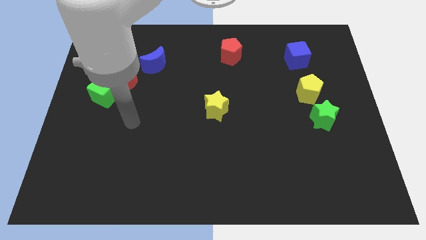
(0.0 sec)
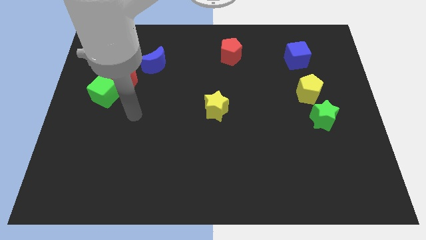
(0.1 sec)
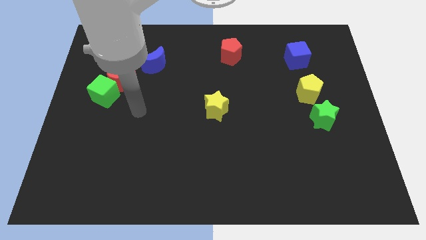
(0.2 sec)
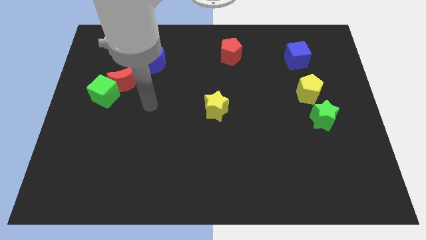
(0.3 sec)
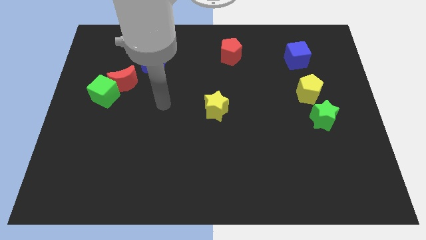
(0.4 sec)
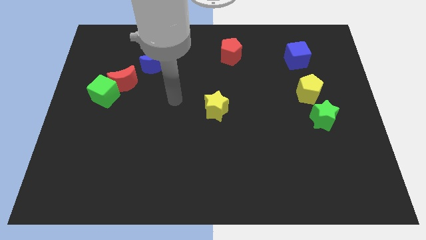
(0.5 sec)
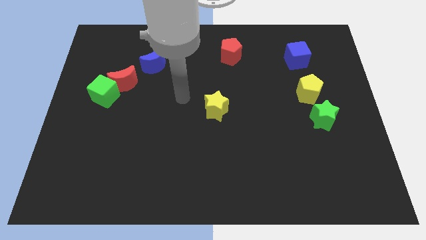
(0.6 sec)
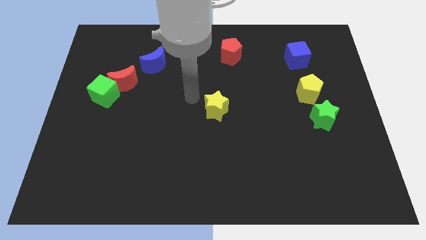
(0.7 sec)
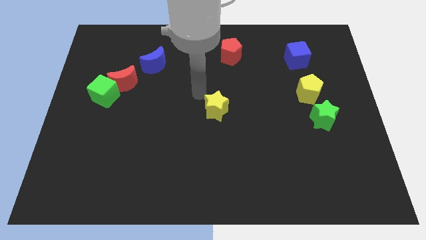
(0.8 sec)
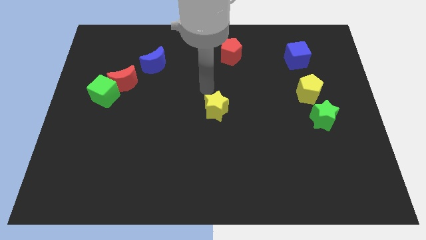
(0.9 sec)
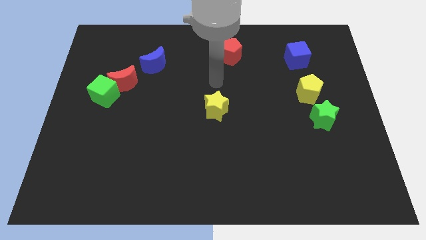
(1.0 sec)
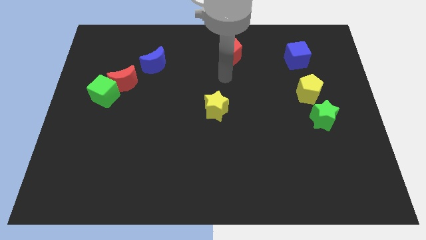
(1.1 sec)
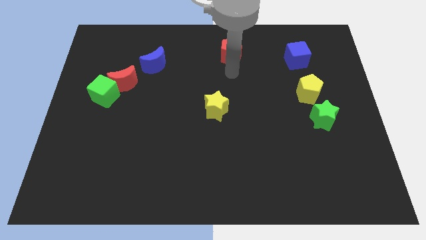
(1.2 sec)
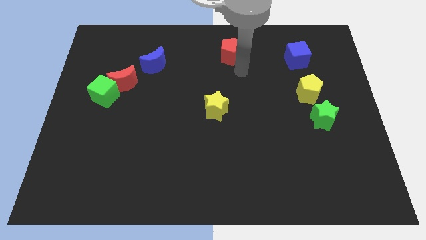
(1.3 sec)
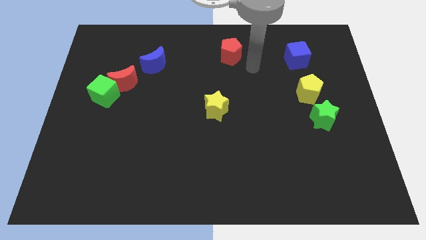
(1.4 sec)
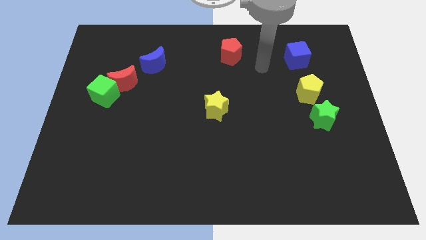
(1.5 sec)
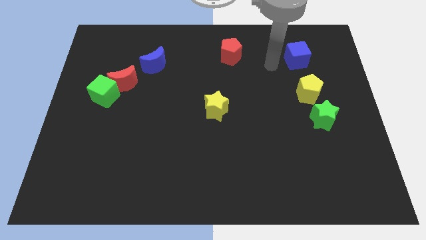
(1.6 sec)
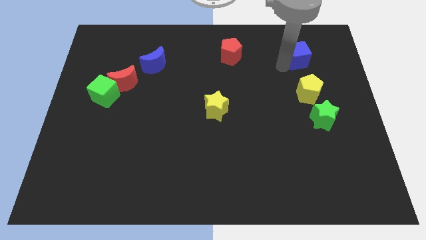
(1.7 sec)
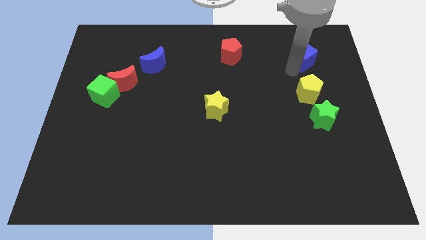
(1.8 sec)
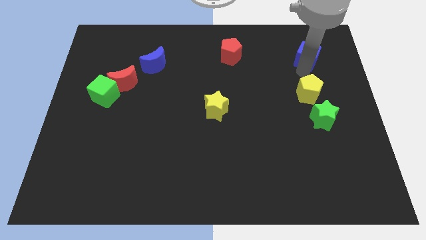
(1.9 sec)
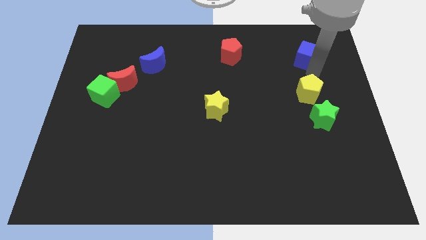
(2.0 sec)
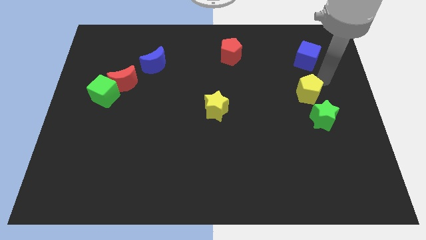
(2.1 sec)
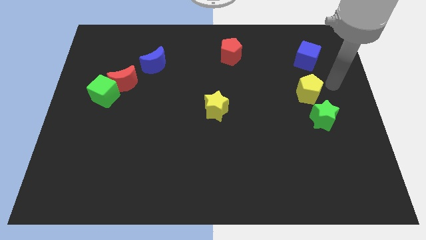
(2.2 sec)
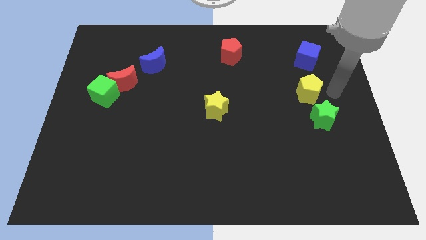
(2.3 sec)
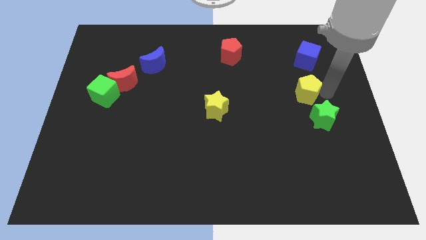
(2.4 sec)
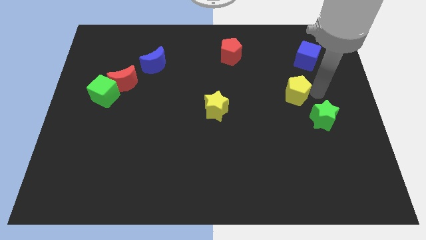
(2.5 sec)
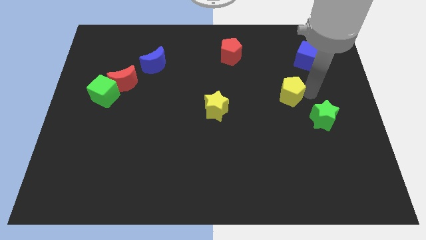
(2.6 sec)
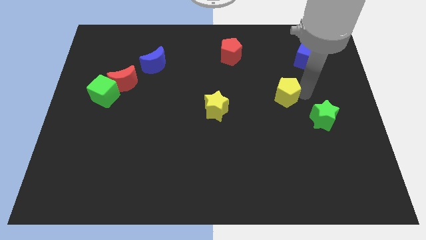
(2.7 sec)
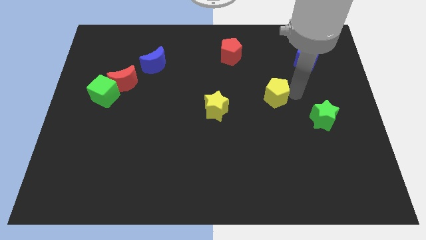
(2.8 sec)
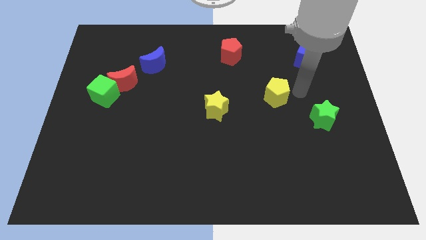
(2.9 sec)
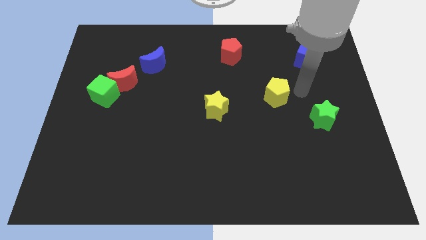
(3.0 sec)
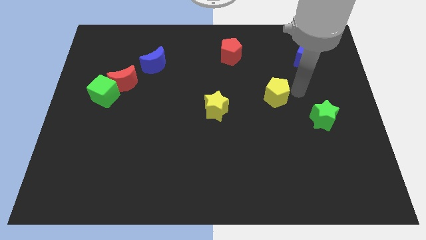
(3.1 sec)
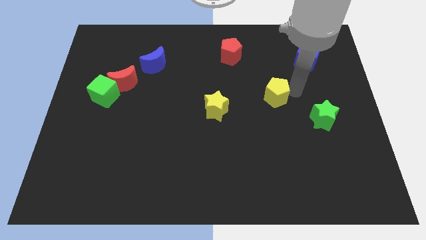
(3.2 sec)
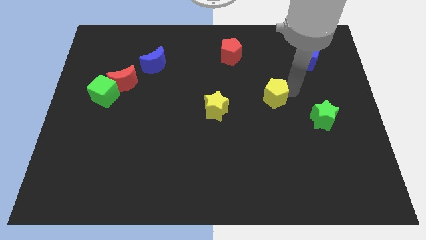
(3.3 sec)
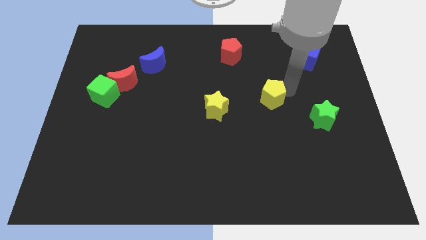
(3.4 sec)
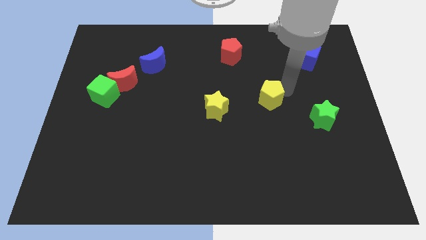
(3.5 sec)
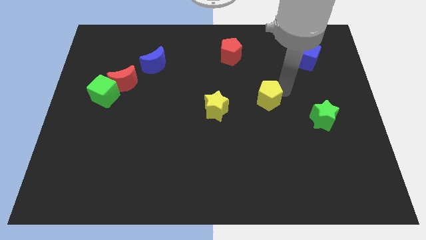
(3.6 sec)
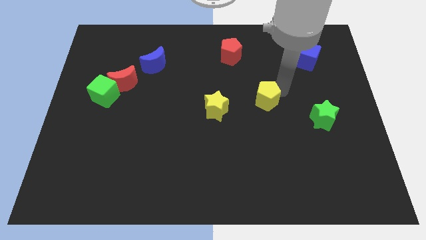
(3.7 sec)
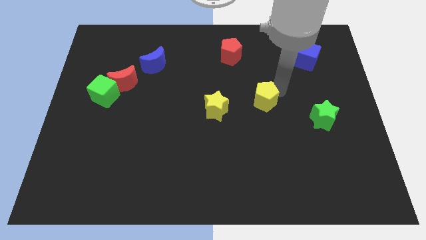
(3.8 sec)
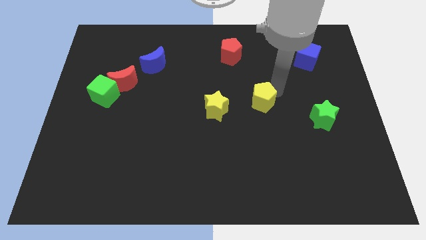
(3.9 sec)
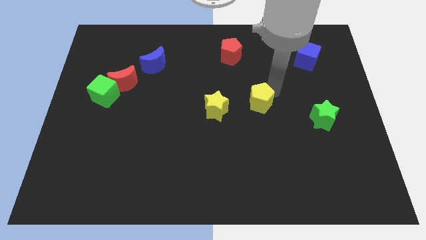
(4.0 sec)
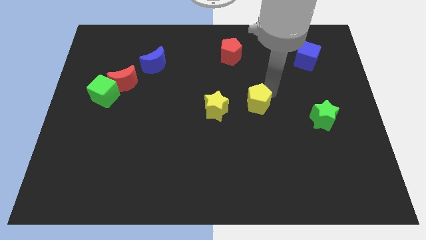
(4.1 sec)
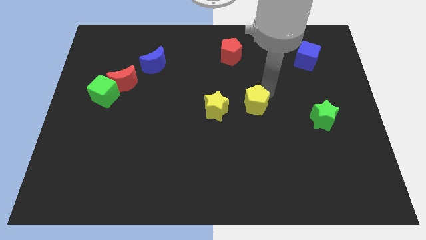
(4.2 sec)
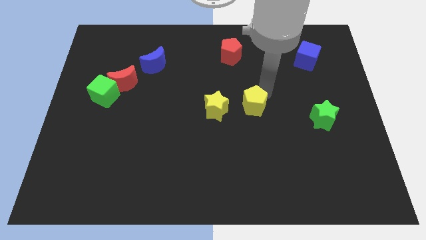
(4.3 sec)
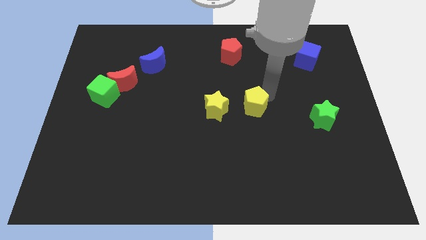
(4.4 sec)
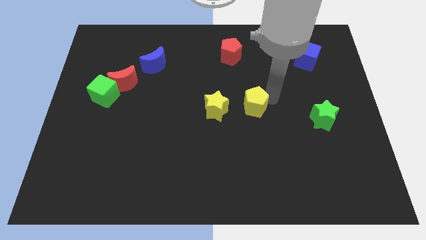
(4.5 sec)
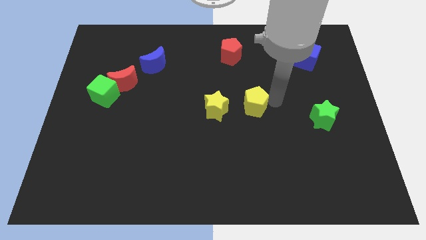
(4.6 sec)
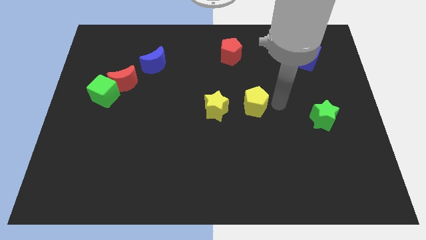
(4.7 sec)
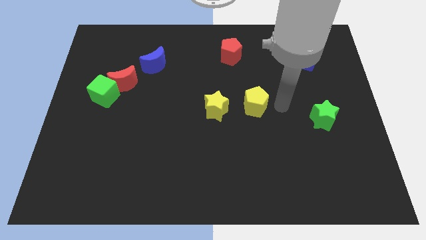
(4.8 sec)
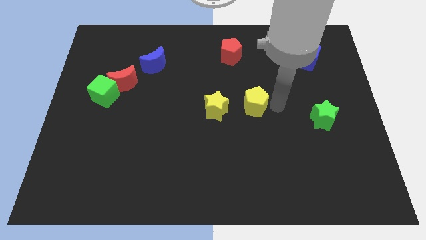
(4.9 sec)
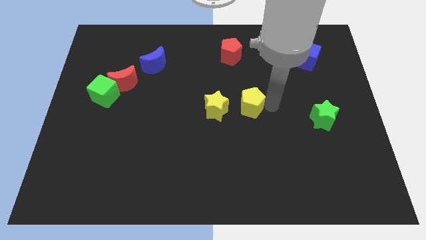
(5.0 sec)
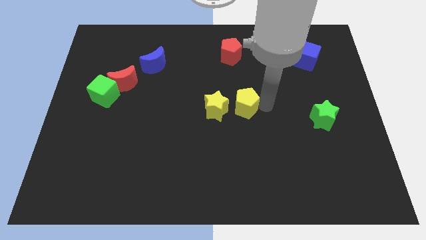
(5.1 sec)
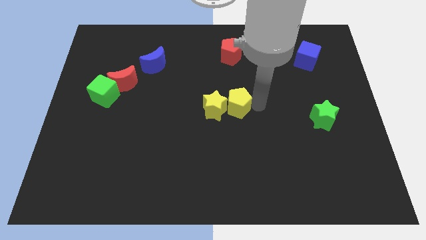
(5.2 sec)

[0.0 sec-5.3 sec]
put the yellow pentagon close to the yellow star

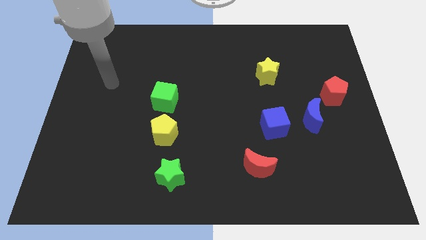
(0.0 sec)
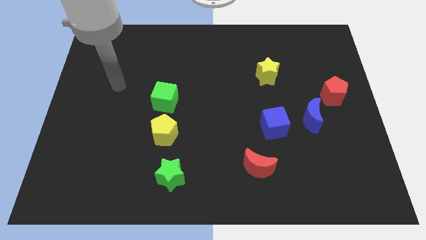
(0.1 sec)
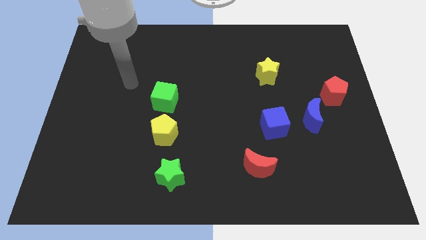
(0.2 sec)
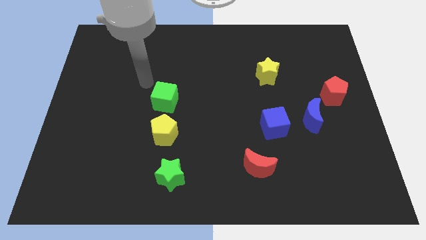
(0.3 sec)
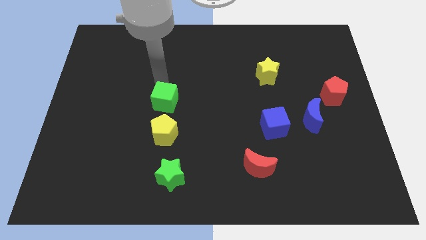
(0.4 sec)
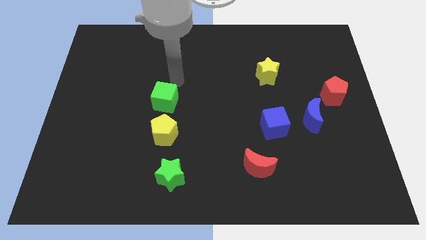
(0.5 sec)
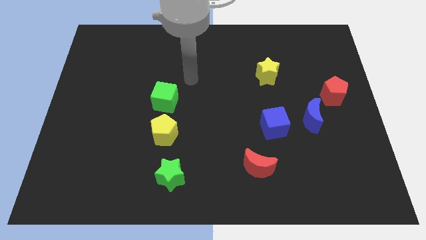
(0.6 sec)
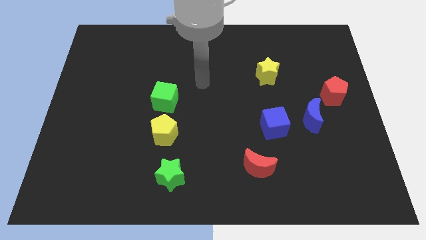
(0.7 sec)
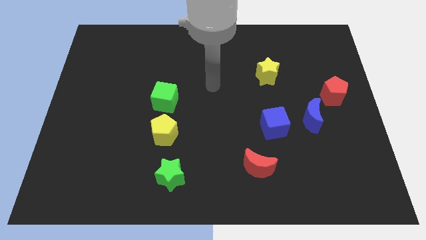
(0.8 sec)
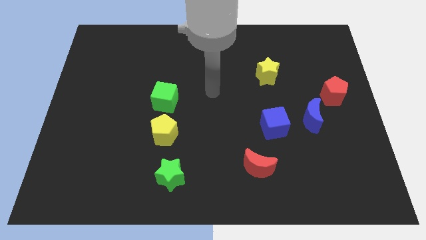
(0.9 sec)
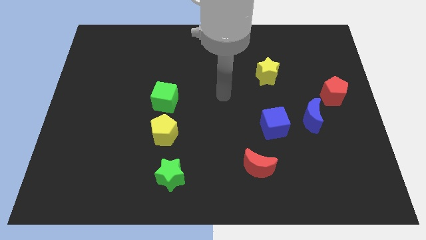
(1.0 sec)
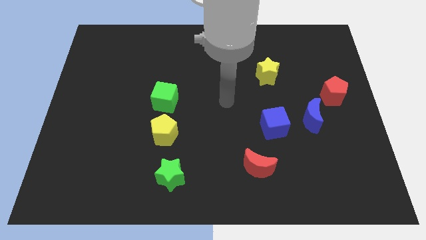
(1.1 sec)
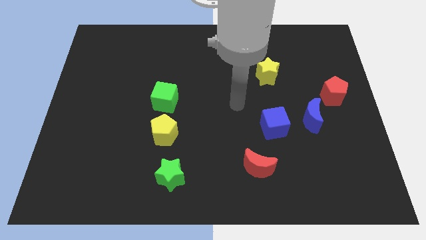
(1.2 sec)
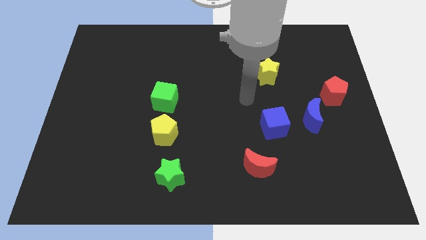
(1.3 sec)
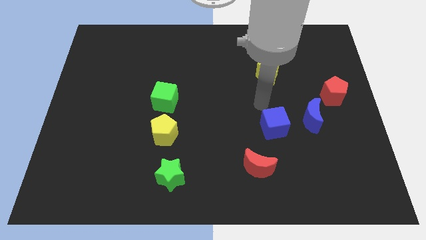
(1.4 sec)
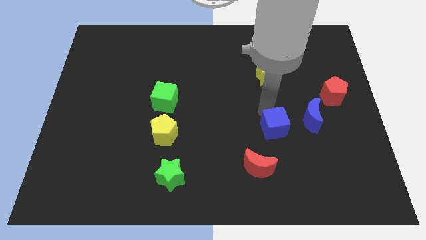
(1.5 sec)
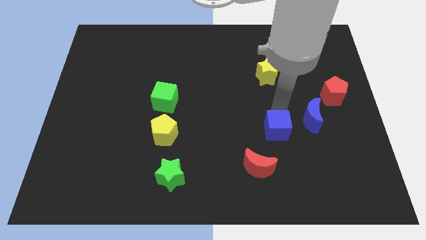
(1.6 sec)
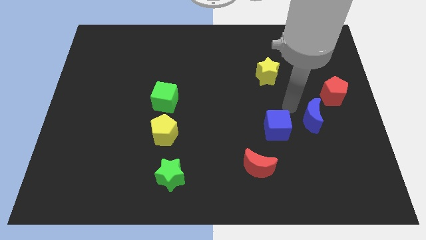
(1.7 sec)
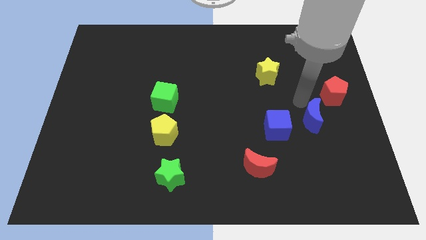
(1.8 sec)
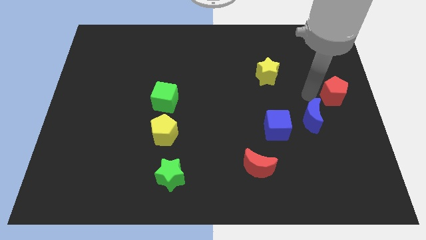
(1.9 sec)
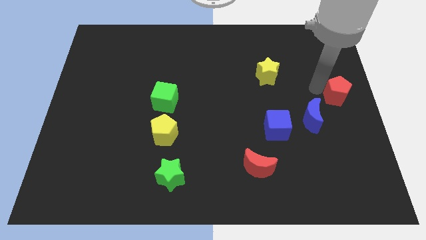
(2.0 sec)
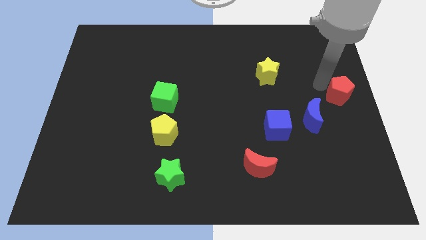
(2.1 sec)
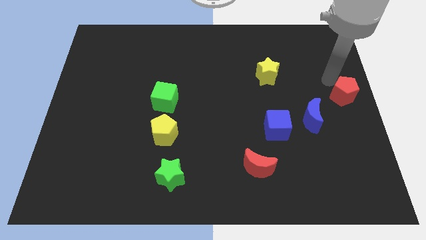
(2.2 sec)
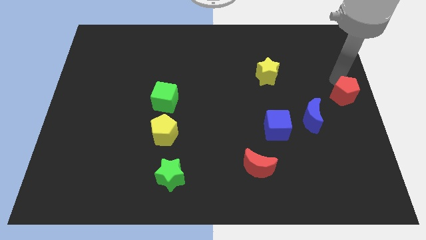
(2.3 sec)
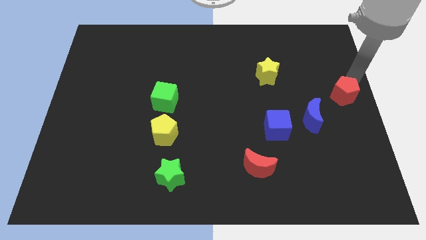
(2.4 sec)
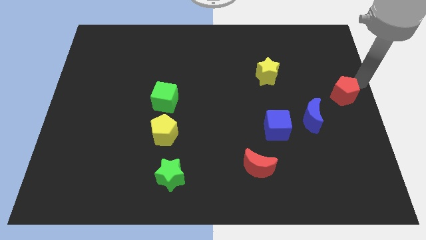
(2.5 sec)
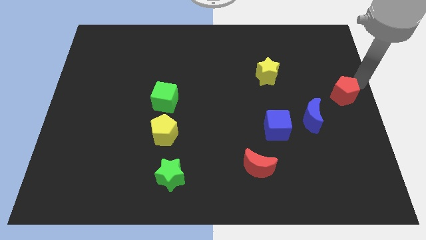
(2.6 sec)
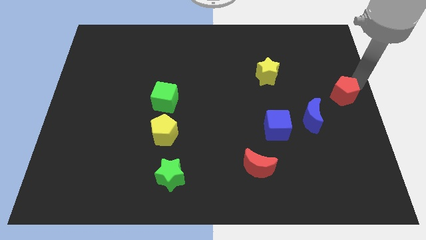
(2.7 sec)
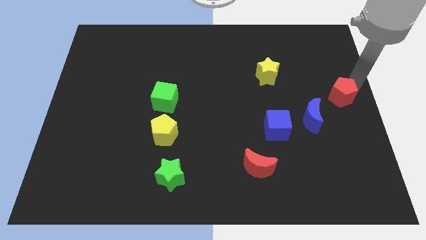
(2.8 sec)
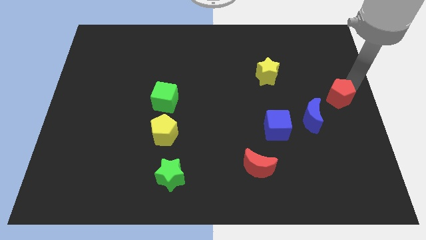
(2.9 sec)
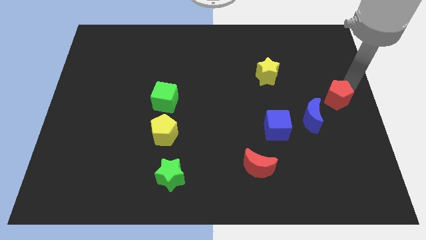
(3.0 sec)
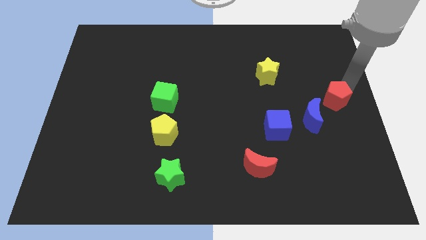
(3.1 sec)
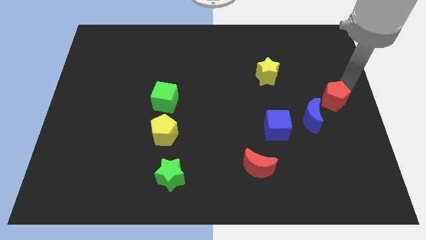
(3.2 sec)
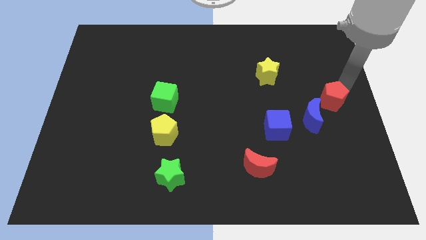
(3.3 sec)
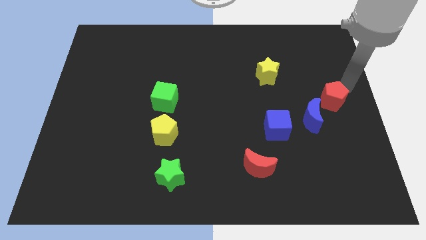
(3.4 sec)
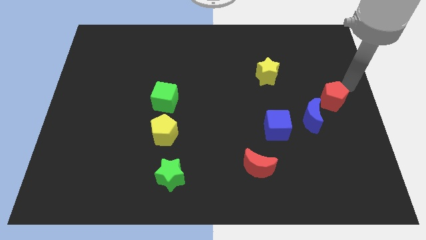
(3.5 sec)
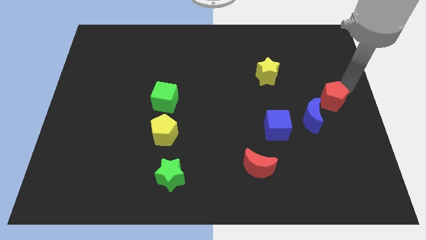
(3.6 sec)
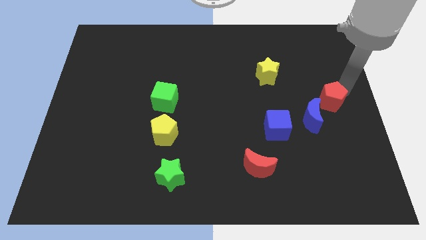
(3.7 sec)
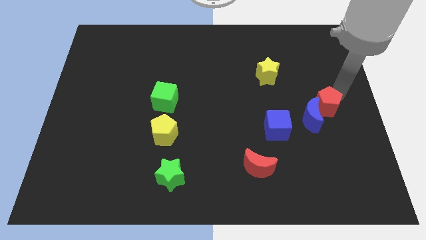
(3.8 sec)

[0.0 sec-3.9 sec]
put the red pentagon close to the blue moon
